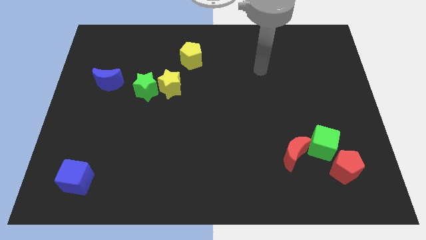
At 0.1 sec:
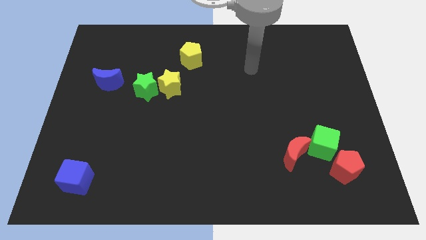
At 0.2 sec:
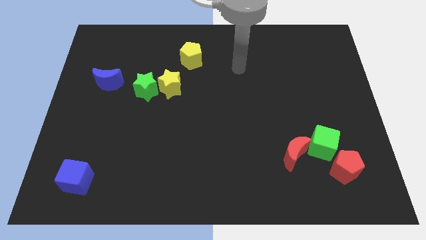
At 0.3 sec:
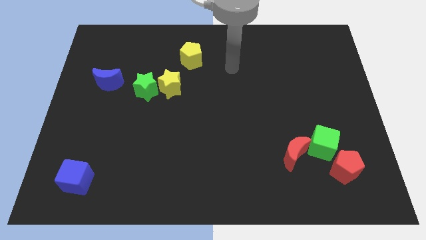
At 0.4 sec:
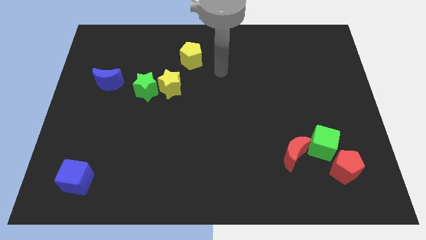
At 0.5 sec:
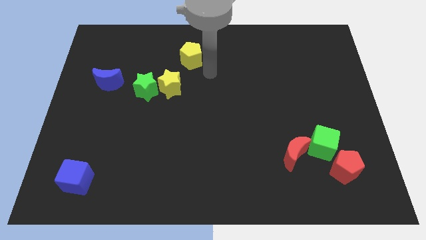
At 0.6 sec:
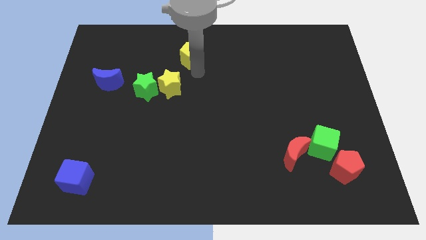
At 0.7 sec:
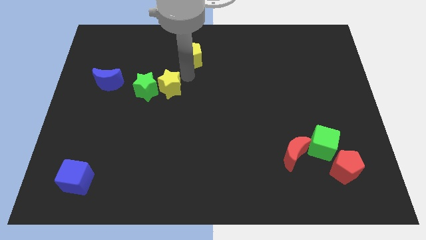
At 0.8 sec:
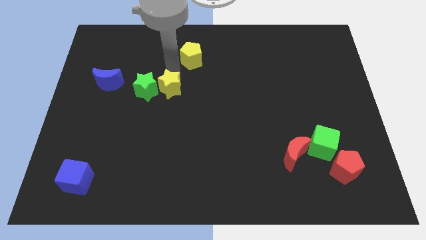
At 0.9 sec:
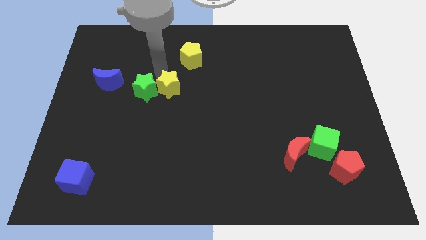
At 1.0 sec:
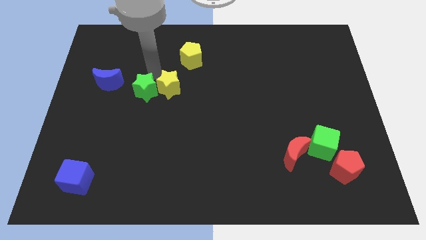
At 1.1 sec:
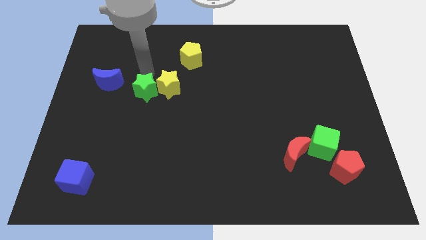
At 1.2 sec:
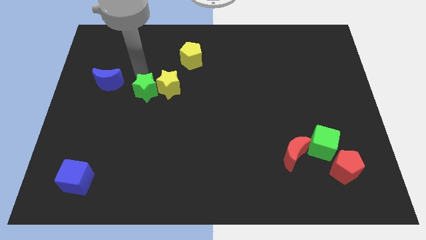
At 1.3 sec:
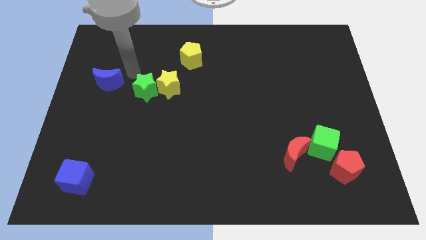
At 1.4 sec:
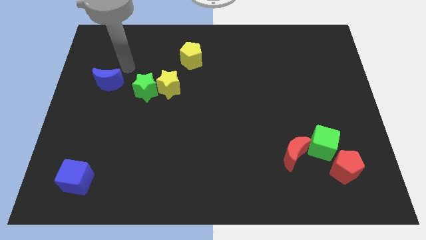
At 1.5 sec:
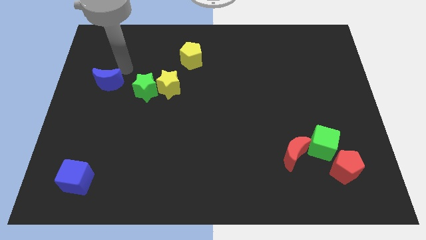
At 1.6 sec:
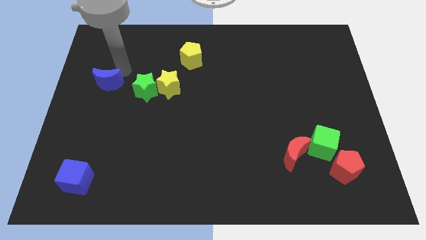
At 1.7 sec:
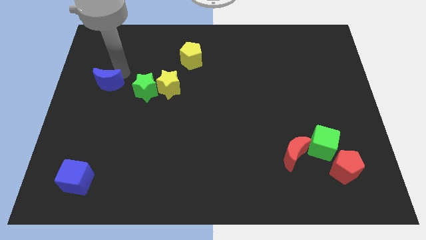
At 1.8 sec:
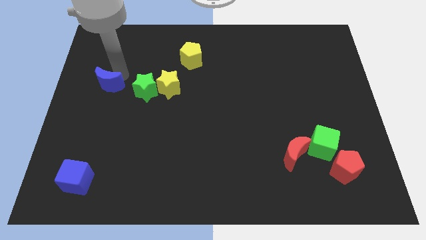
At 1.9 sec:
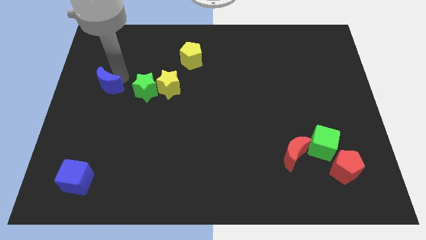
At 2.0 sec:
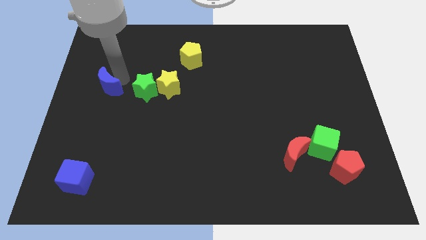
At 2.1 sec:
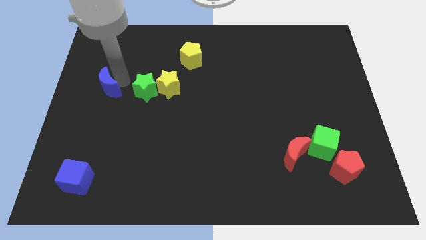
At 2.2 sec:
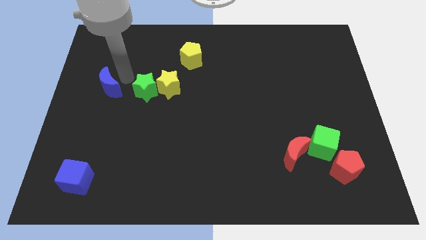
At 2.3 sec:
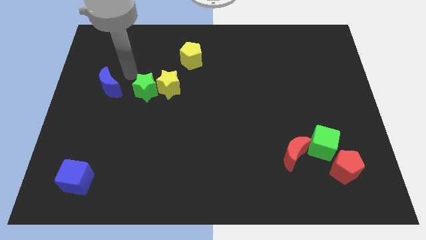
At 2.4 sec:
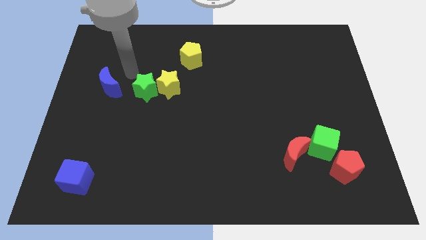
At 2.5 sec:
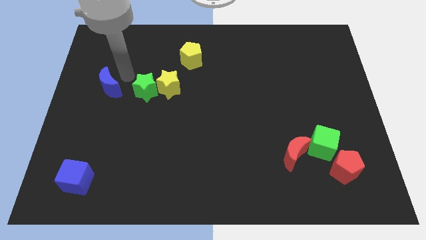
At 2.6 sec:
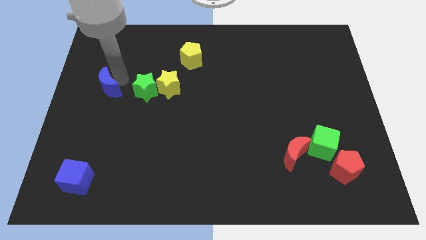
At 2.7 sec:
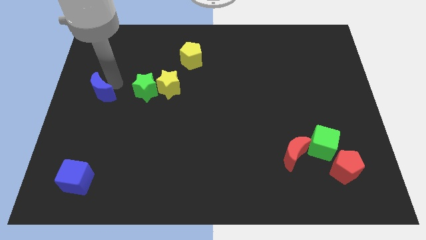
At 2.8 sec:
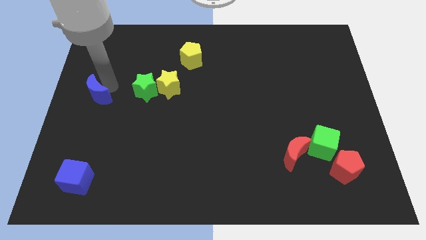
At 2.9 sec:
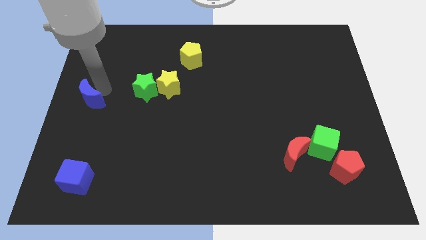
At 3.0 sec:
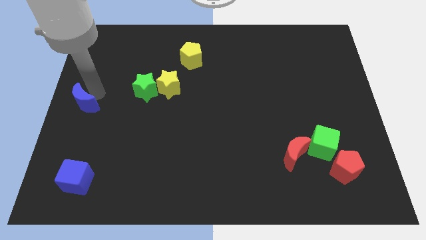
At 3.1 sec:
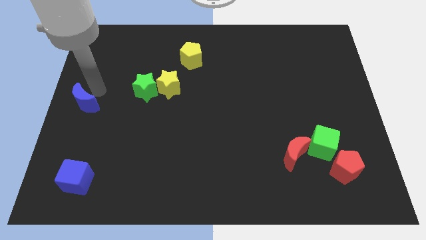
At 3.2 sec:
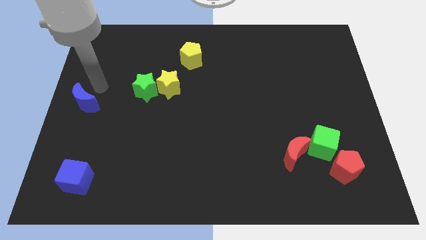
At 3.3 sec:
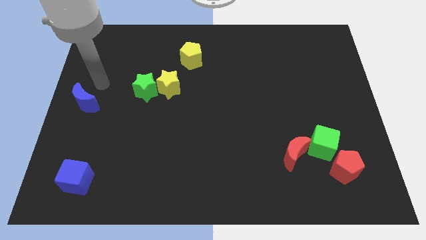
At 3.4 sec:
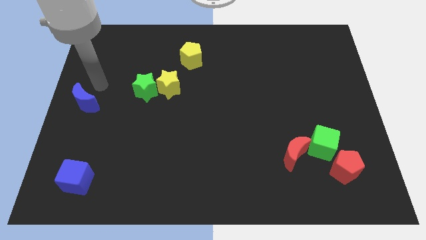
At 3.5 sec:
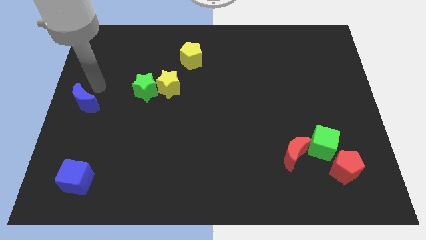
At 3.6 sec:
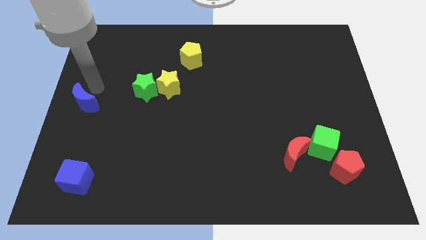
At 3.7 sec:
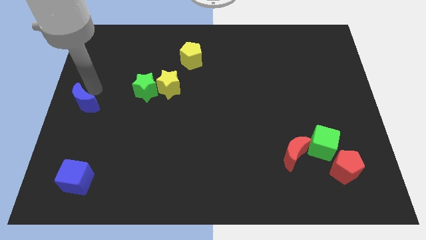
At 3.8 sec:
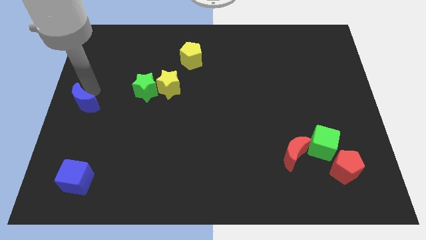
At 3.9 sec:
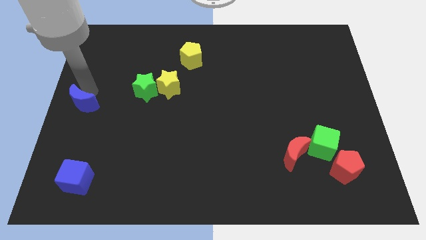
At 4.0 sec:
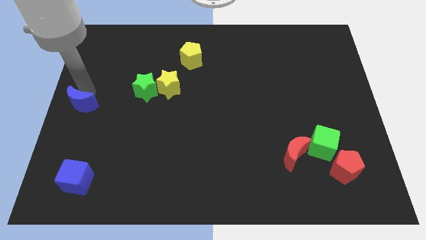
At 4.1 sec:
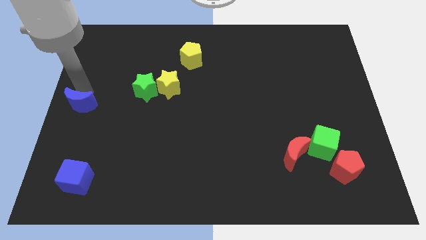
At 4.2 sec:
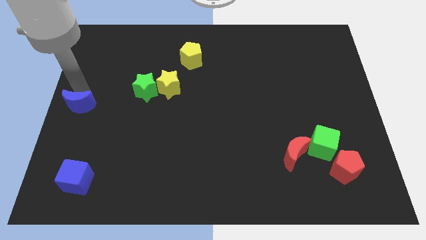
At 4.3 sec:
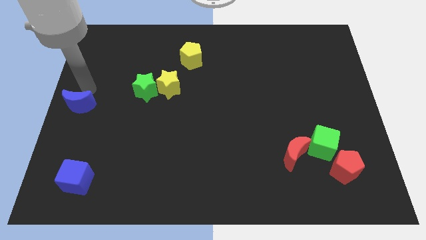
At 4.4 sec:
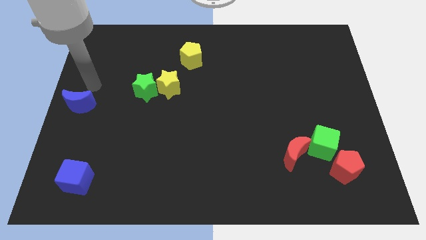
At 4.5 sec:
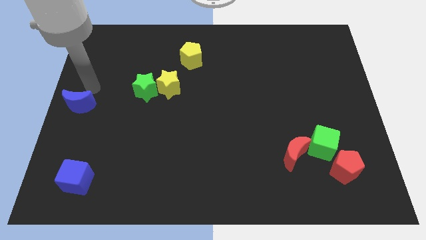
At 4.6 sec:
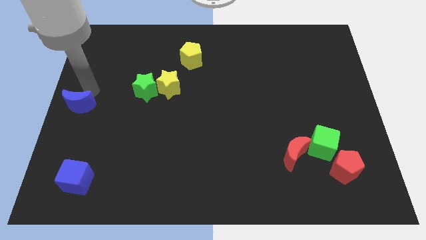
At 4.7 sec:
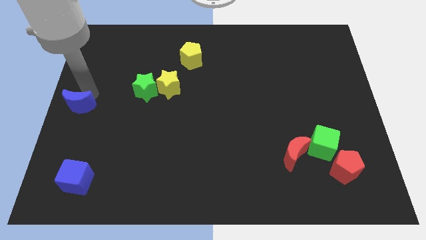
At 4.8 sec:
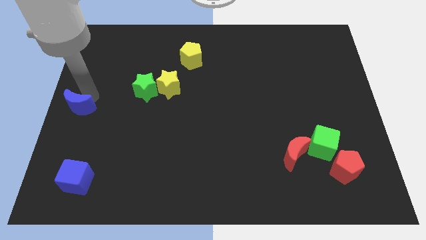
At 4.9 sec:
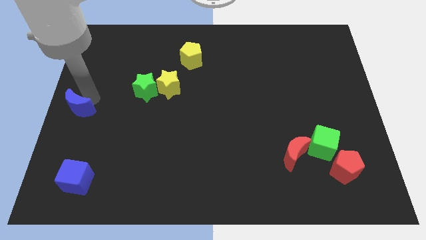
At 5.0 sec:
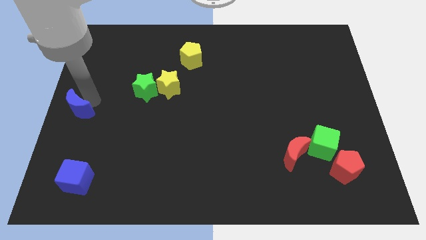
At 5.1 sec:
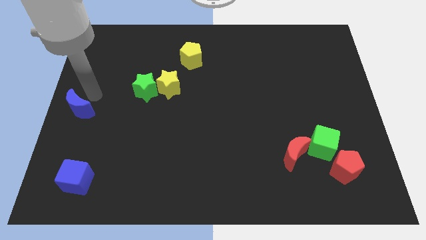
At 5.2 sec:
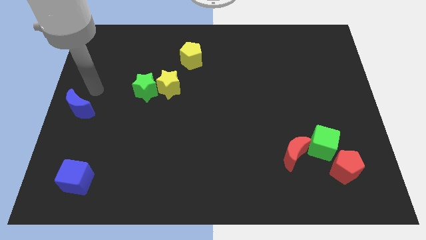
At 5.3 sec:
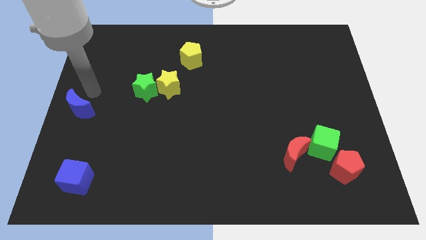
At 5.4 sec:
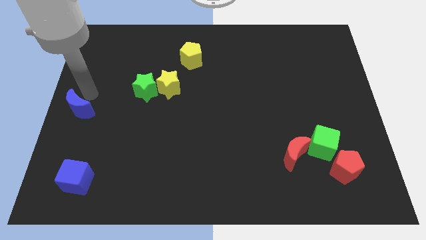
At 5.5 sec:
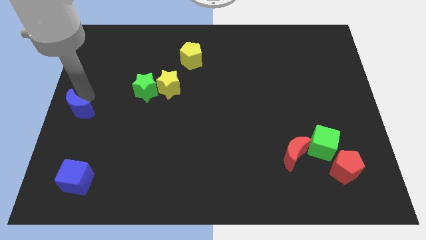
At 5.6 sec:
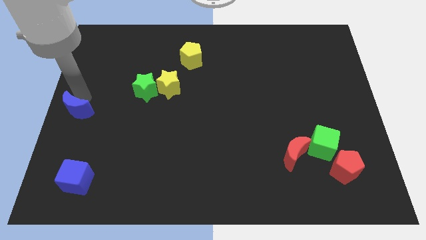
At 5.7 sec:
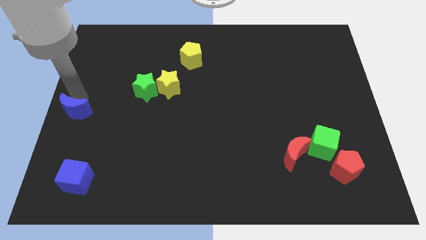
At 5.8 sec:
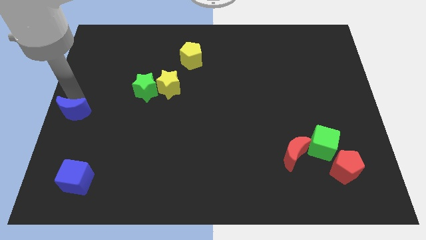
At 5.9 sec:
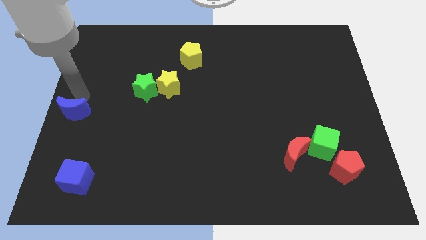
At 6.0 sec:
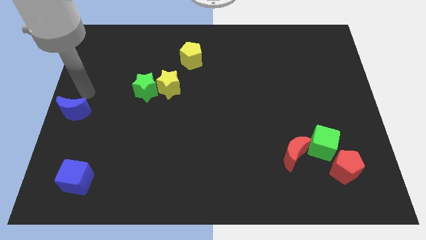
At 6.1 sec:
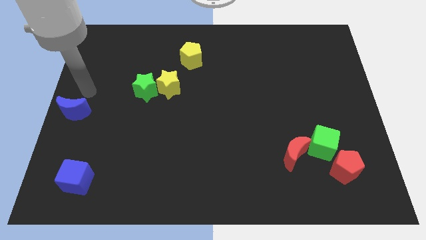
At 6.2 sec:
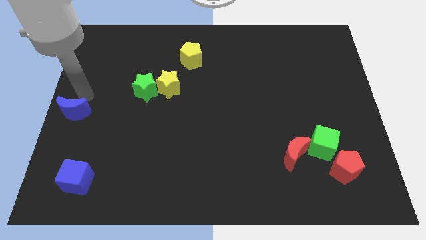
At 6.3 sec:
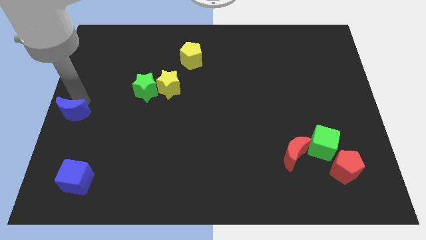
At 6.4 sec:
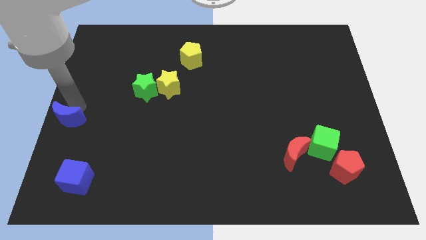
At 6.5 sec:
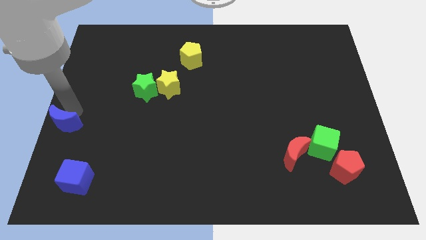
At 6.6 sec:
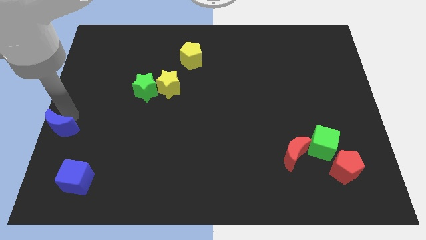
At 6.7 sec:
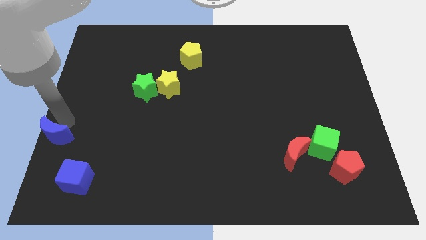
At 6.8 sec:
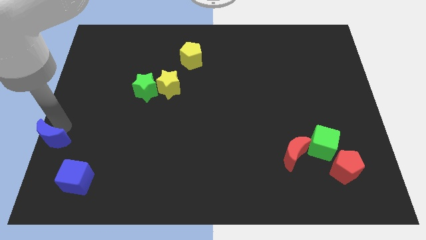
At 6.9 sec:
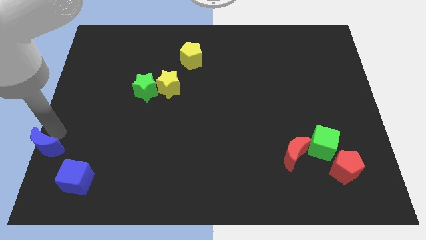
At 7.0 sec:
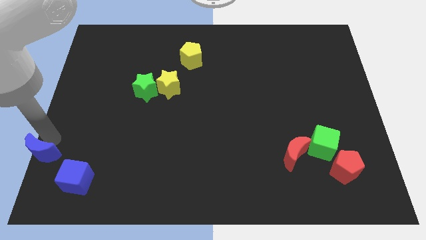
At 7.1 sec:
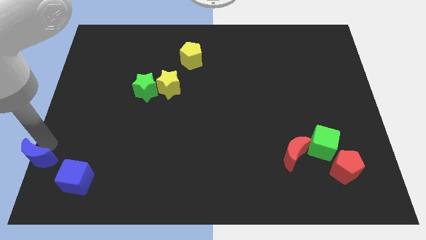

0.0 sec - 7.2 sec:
put the blue moon to the lower left corner
